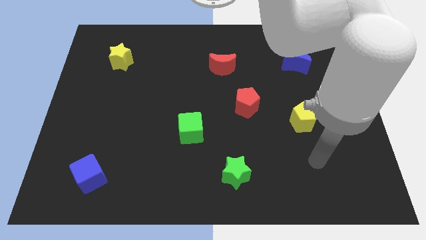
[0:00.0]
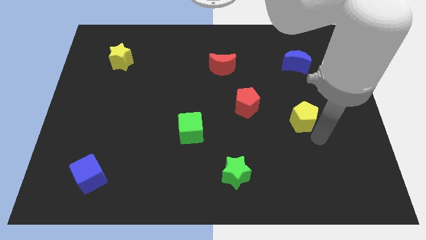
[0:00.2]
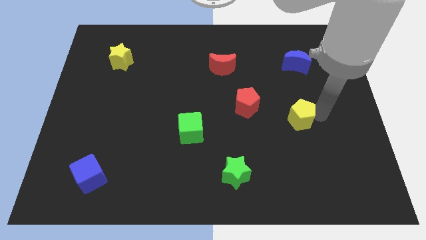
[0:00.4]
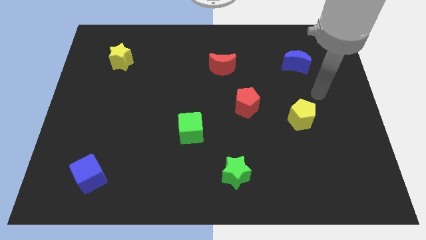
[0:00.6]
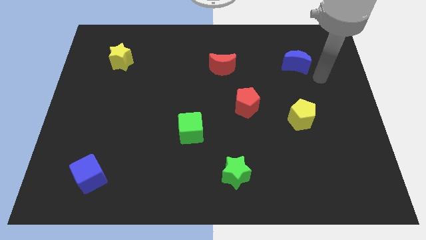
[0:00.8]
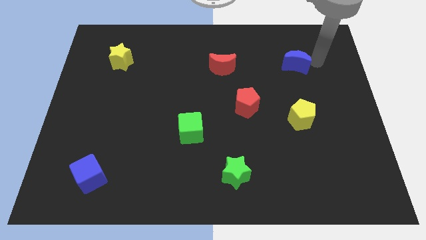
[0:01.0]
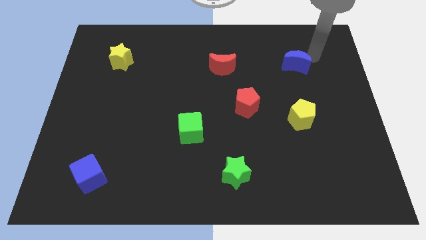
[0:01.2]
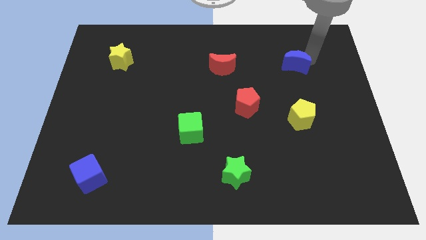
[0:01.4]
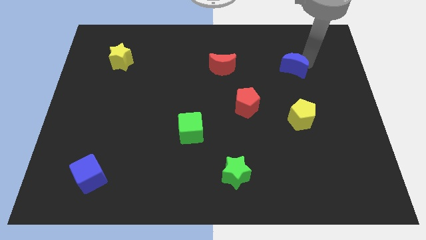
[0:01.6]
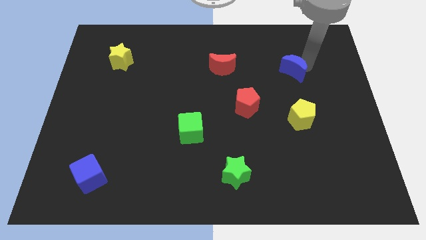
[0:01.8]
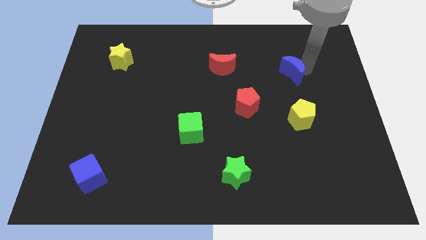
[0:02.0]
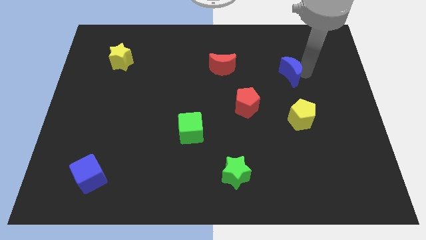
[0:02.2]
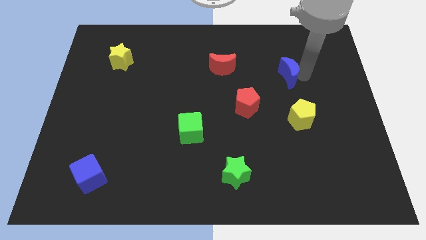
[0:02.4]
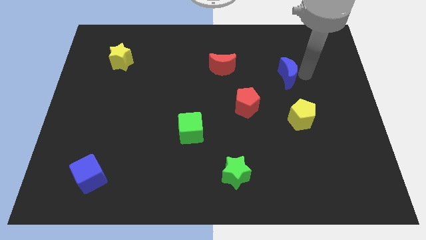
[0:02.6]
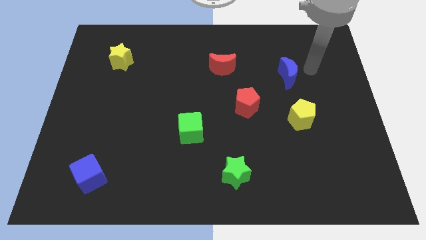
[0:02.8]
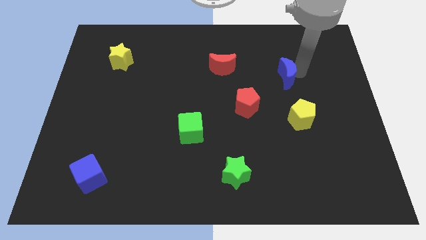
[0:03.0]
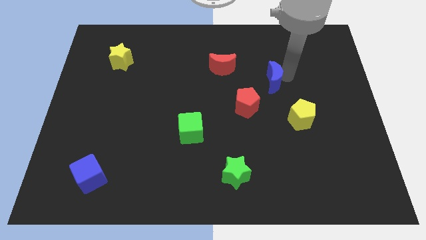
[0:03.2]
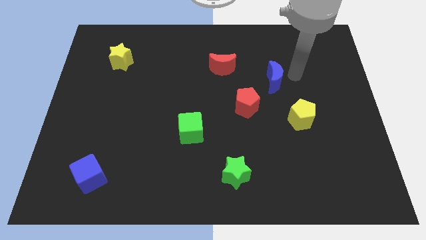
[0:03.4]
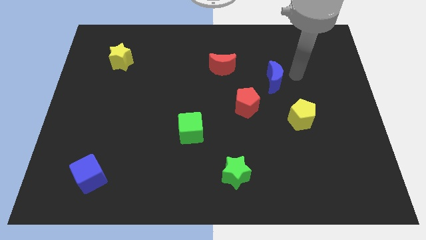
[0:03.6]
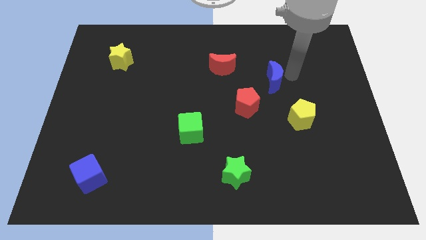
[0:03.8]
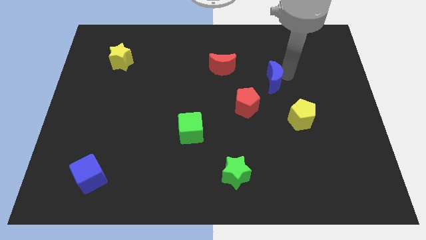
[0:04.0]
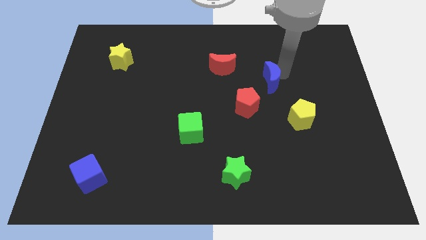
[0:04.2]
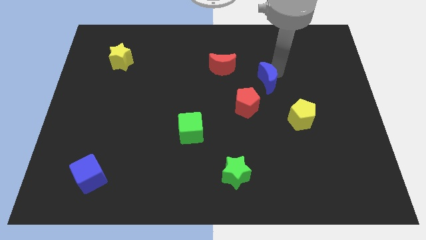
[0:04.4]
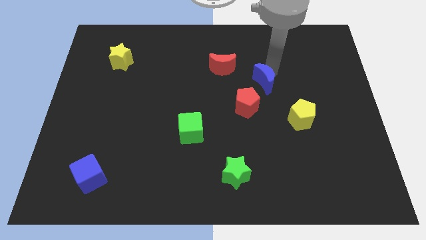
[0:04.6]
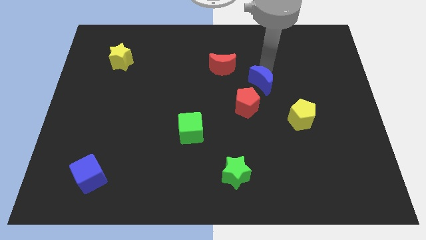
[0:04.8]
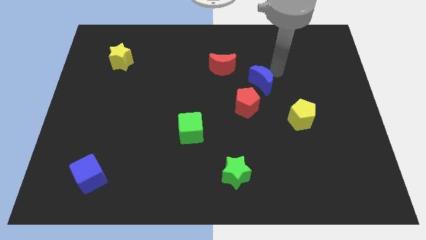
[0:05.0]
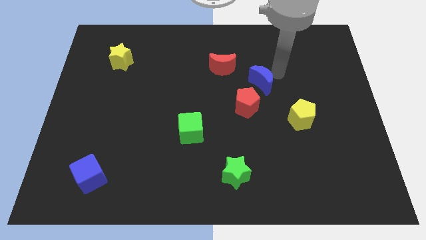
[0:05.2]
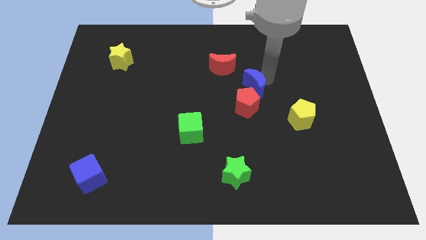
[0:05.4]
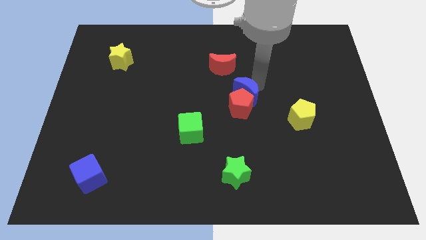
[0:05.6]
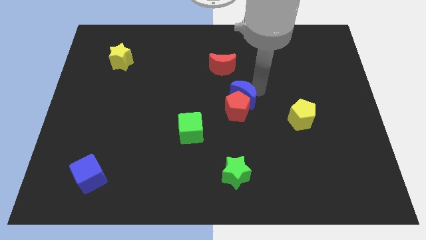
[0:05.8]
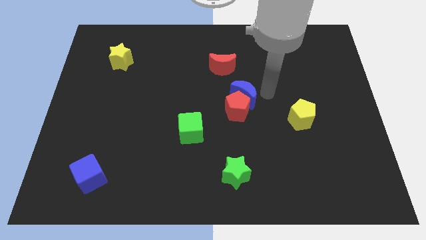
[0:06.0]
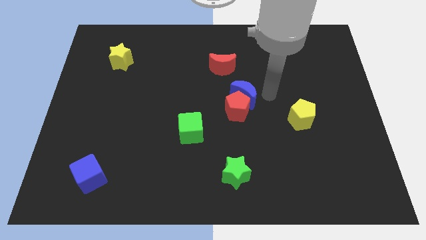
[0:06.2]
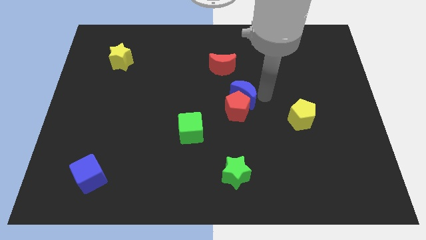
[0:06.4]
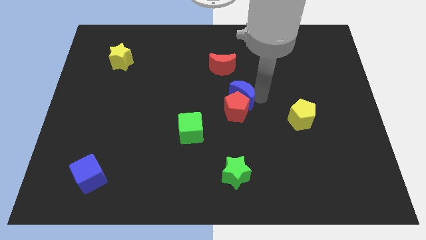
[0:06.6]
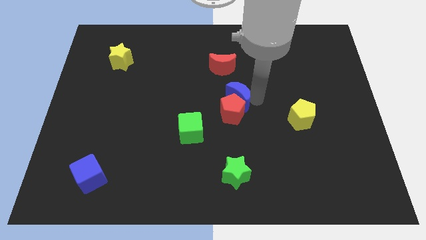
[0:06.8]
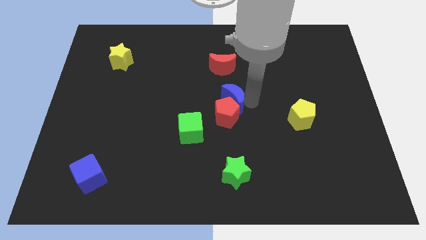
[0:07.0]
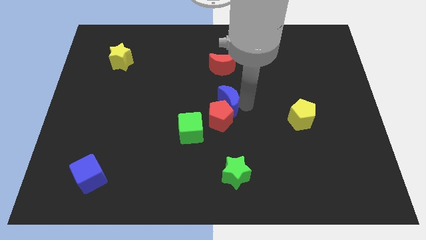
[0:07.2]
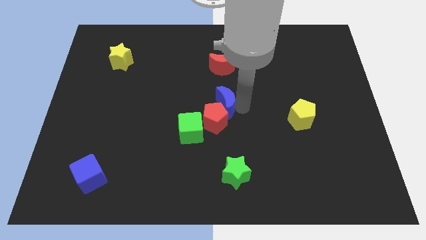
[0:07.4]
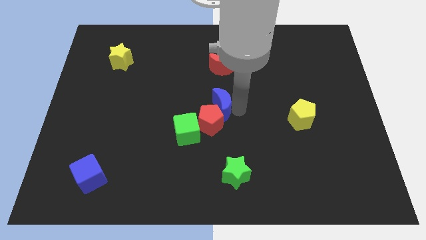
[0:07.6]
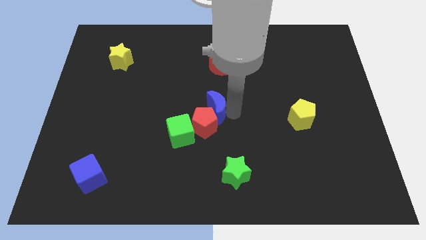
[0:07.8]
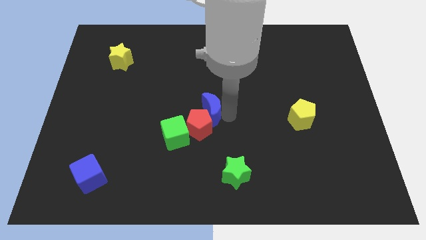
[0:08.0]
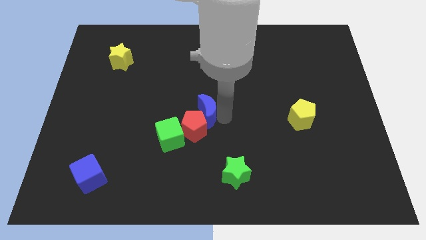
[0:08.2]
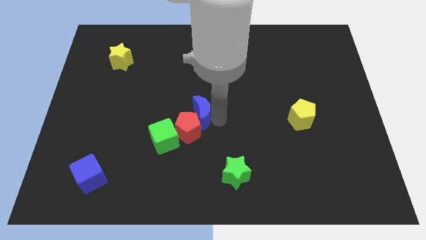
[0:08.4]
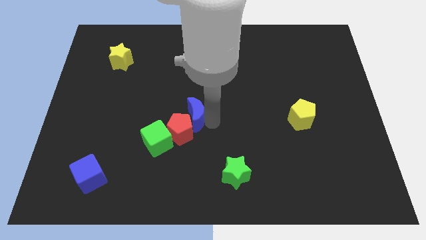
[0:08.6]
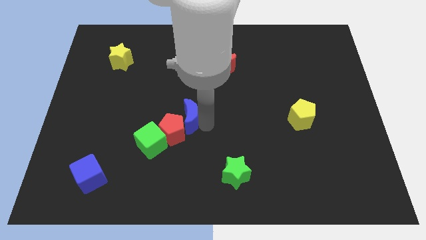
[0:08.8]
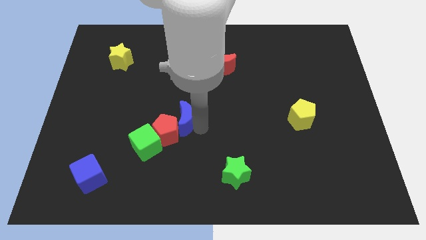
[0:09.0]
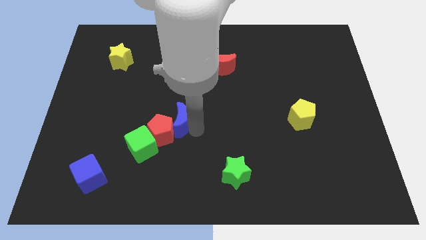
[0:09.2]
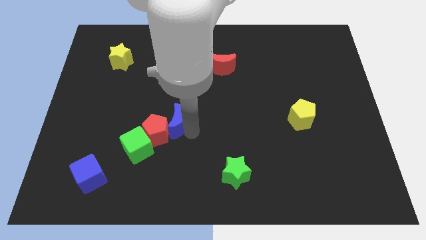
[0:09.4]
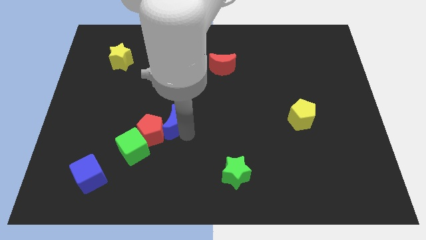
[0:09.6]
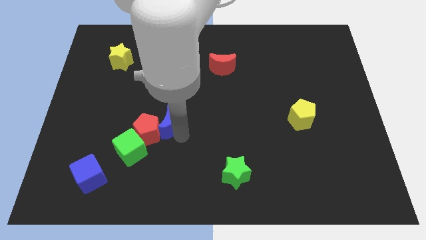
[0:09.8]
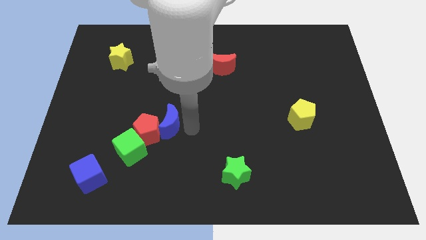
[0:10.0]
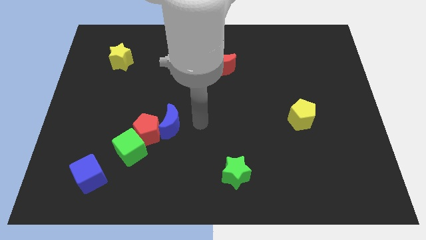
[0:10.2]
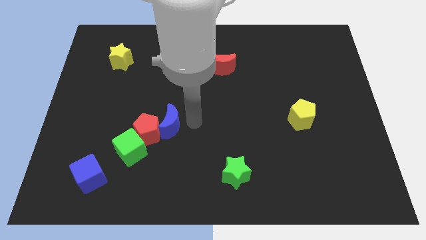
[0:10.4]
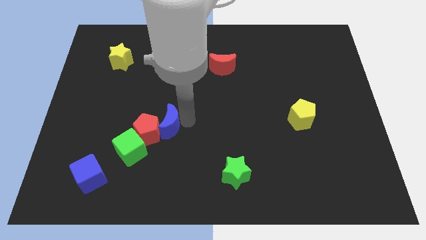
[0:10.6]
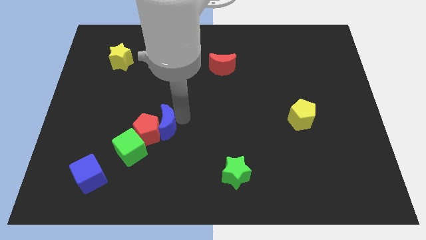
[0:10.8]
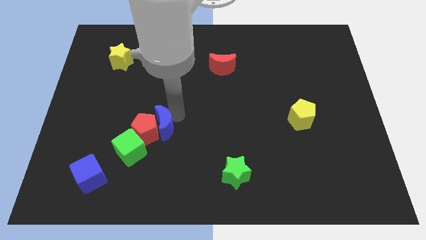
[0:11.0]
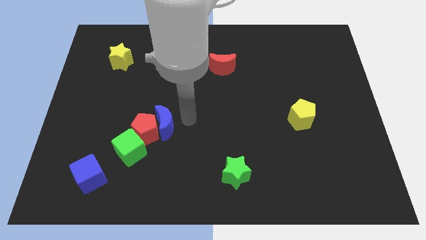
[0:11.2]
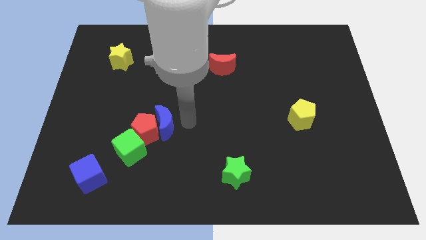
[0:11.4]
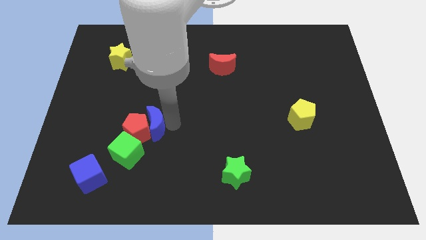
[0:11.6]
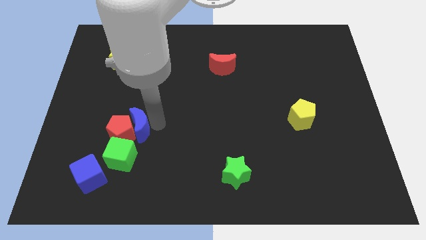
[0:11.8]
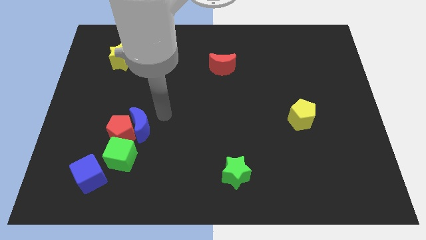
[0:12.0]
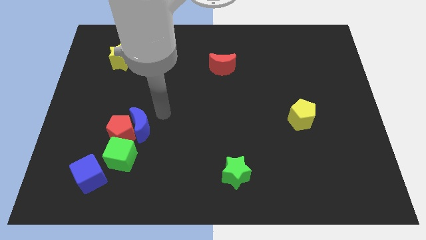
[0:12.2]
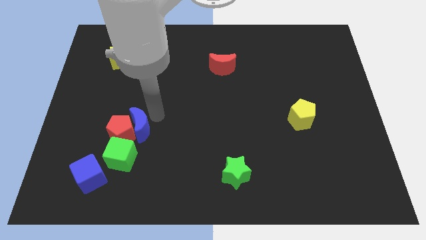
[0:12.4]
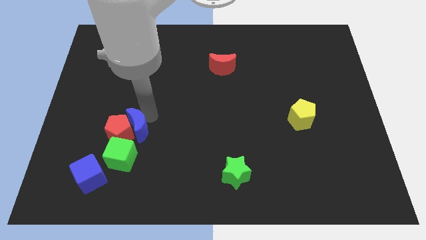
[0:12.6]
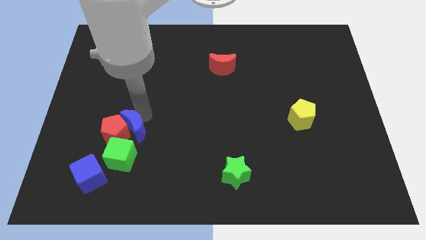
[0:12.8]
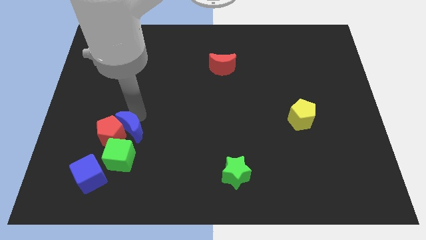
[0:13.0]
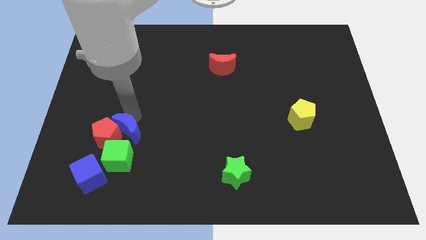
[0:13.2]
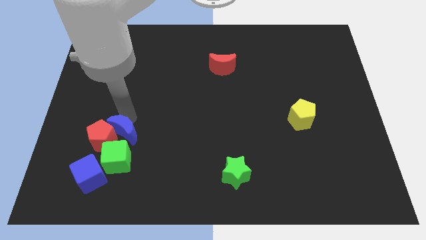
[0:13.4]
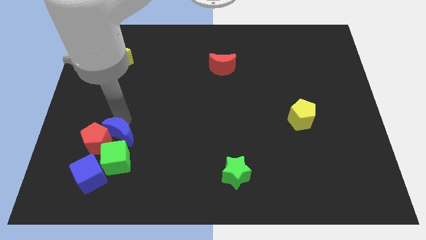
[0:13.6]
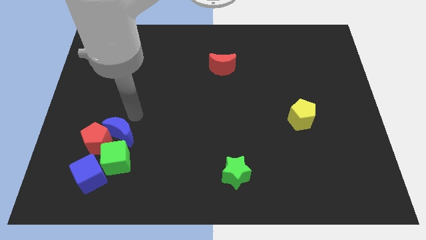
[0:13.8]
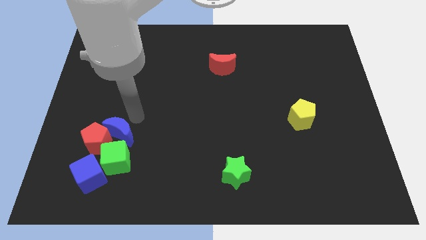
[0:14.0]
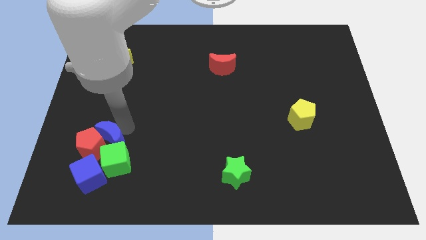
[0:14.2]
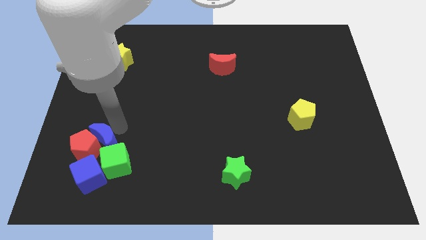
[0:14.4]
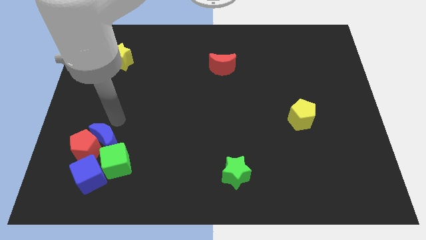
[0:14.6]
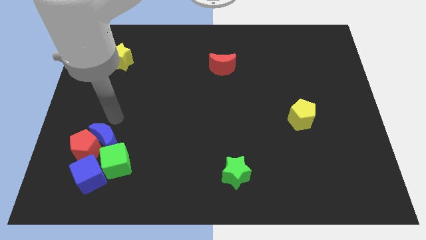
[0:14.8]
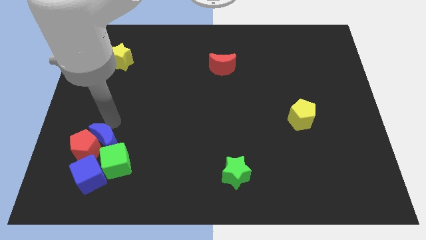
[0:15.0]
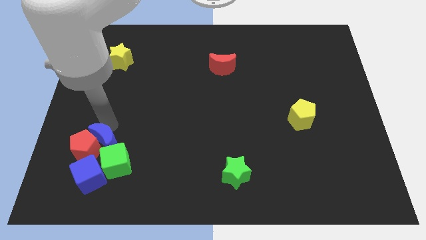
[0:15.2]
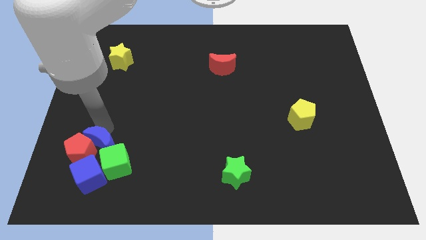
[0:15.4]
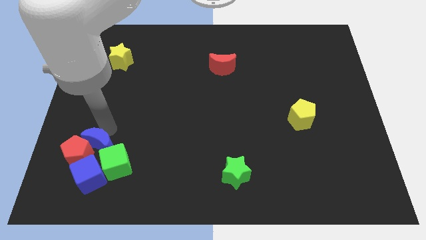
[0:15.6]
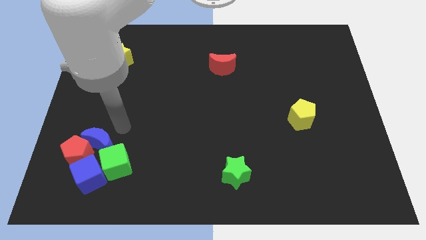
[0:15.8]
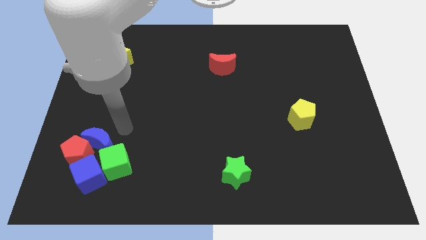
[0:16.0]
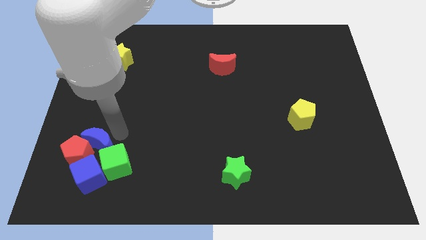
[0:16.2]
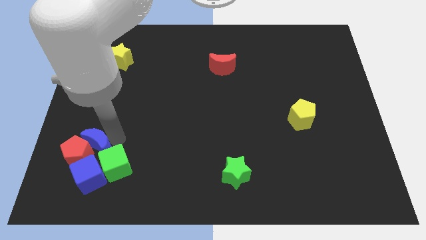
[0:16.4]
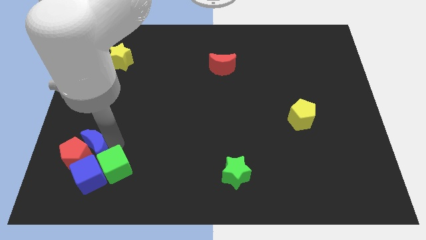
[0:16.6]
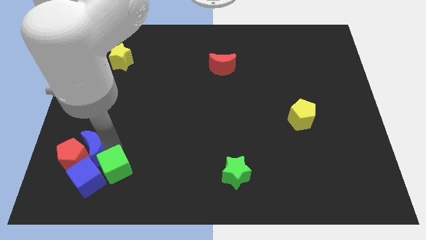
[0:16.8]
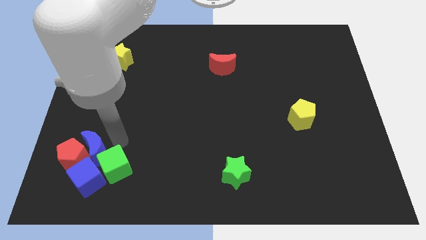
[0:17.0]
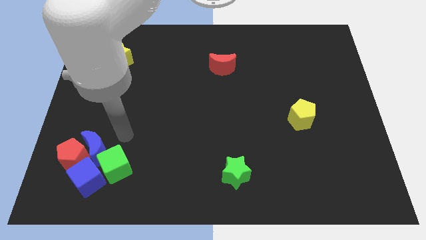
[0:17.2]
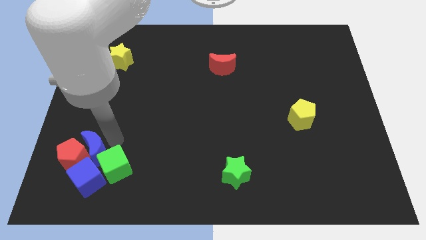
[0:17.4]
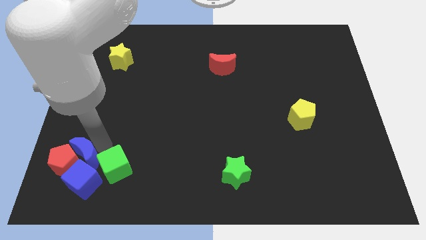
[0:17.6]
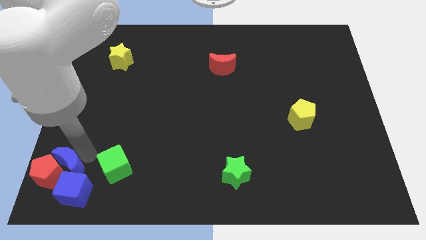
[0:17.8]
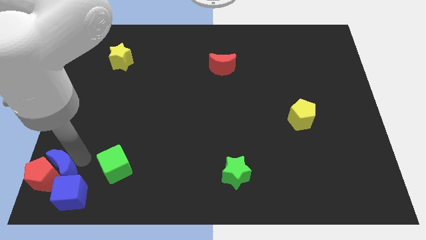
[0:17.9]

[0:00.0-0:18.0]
move the blue moon to the bottom left of the board
